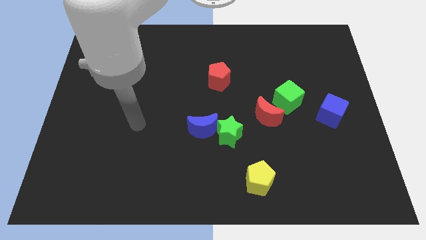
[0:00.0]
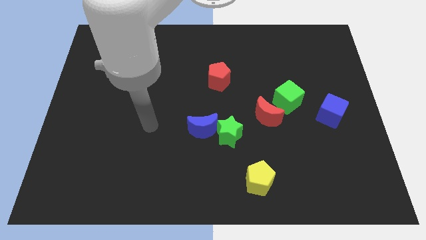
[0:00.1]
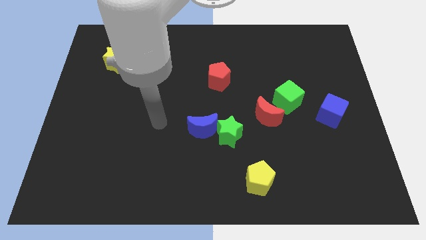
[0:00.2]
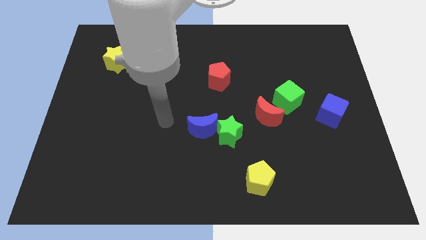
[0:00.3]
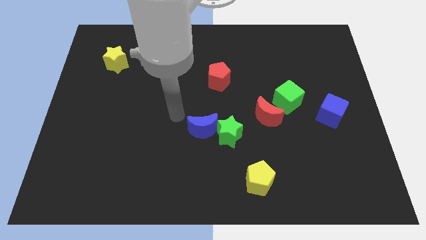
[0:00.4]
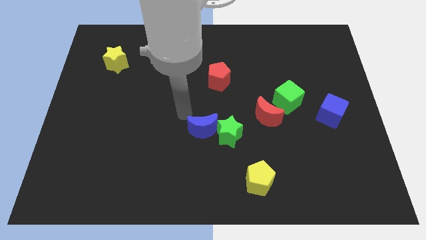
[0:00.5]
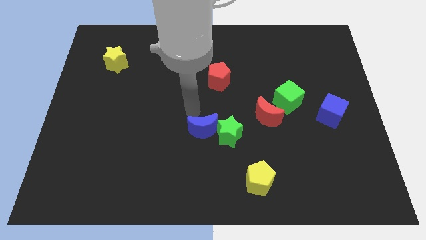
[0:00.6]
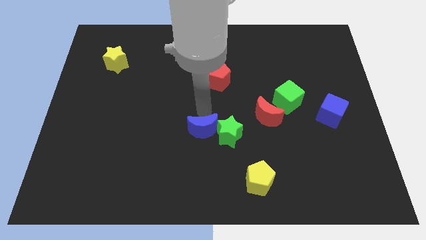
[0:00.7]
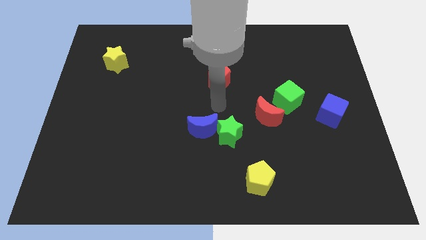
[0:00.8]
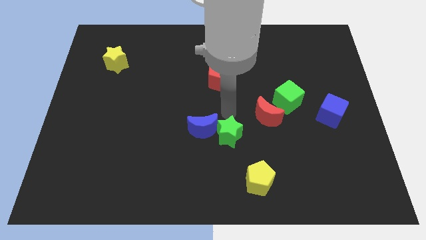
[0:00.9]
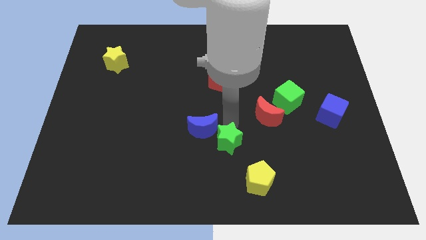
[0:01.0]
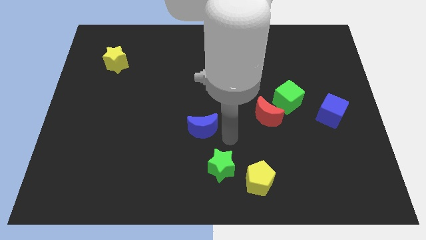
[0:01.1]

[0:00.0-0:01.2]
move the blue moon away from the green star

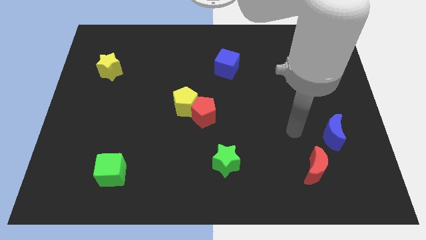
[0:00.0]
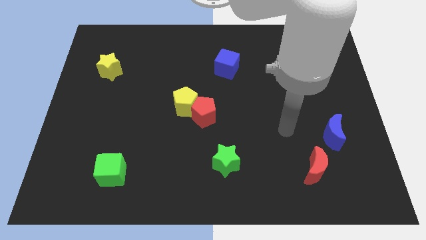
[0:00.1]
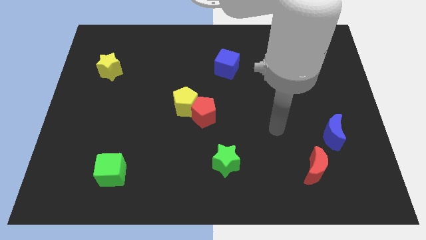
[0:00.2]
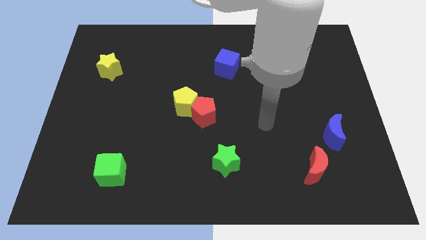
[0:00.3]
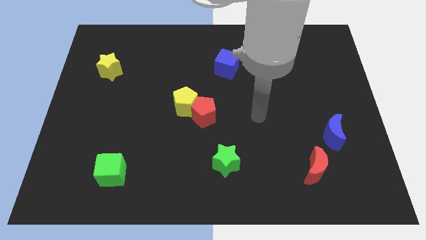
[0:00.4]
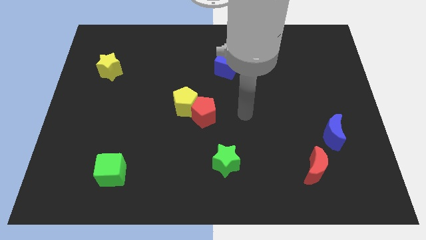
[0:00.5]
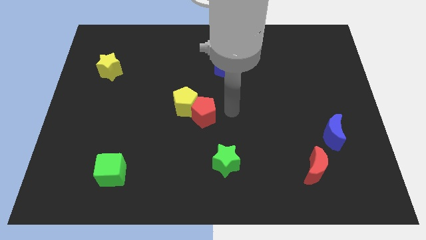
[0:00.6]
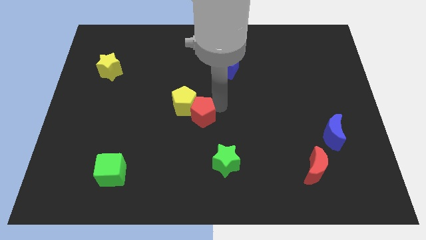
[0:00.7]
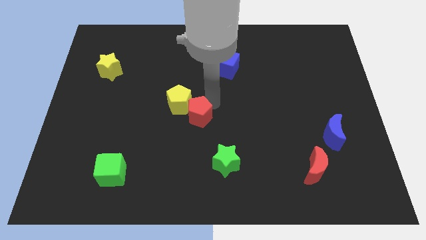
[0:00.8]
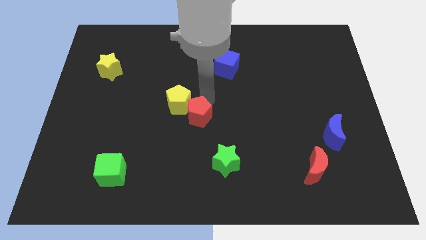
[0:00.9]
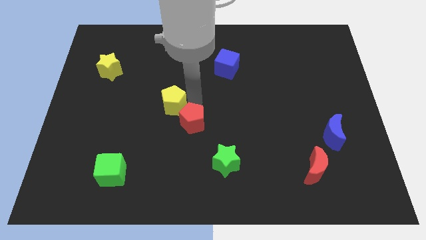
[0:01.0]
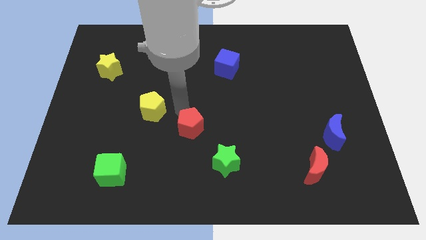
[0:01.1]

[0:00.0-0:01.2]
pull the red pentagon apart from the yellow pentagon

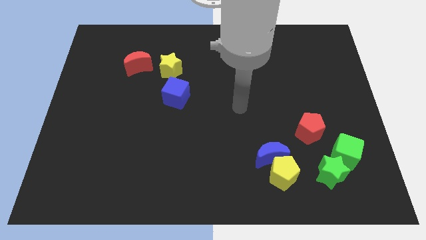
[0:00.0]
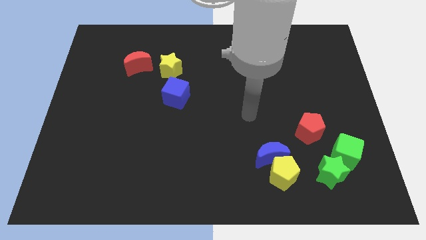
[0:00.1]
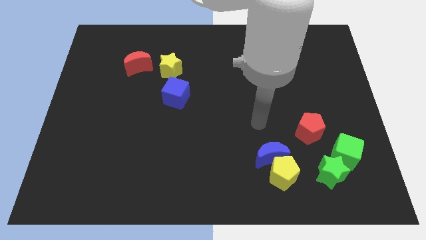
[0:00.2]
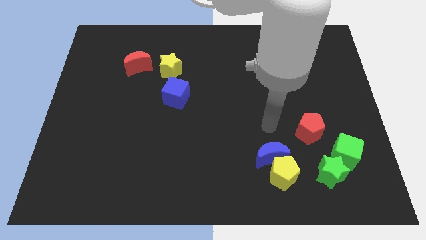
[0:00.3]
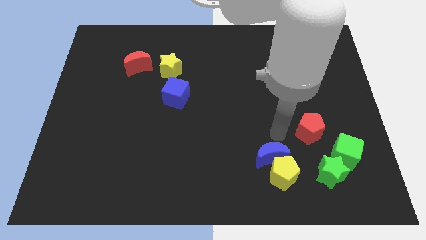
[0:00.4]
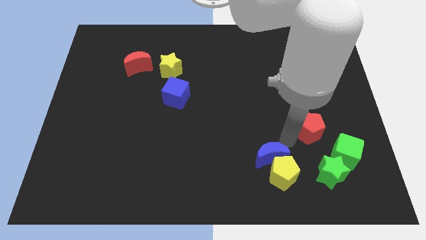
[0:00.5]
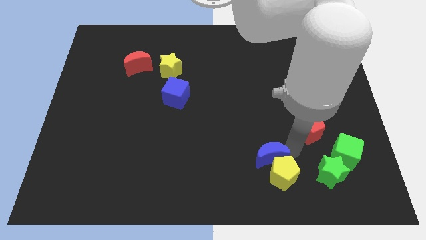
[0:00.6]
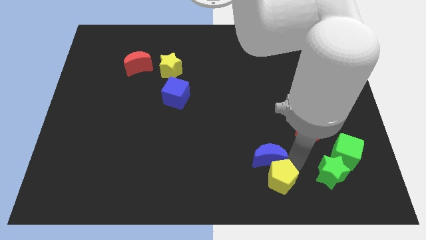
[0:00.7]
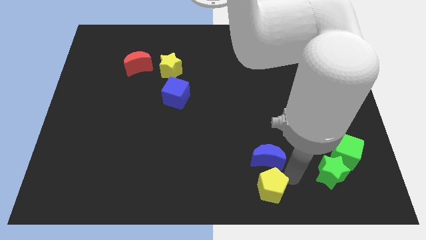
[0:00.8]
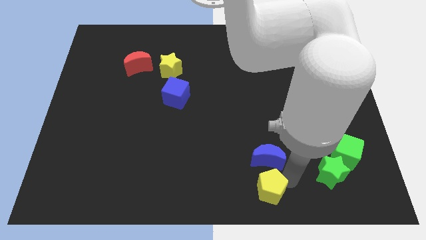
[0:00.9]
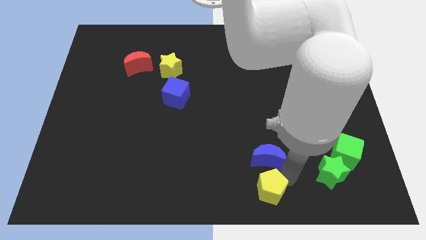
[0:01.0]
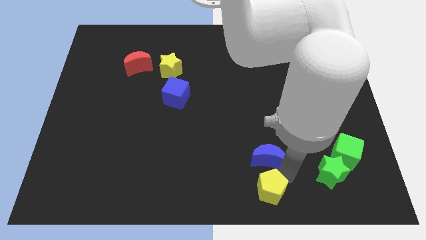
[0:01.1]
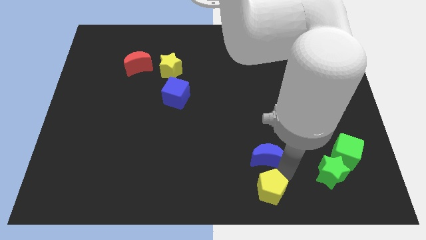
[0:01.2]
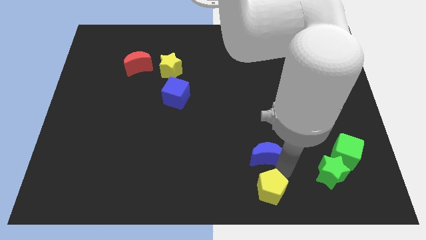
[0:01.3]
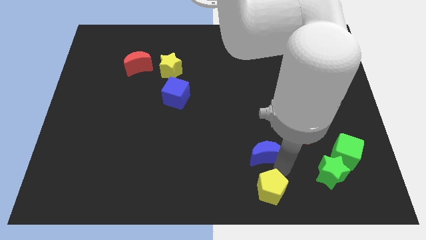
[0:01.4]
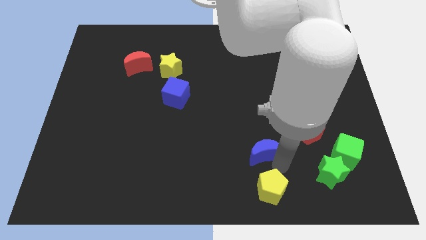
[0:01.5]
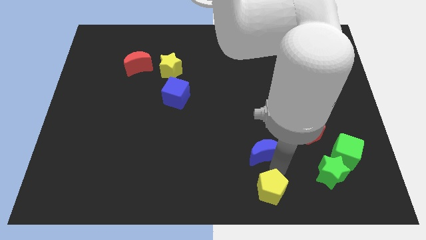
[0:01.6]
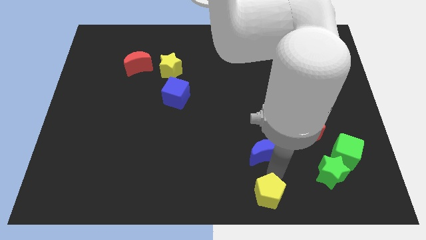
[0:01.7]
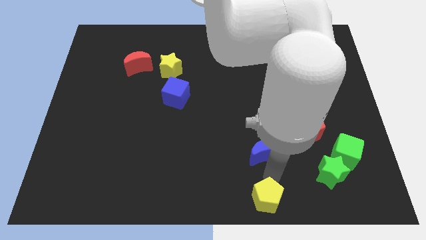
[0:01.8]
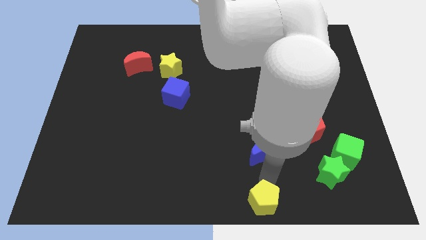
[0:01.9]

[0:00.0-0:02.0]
separate the blue moon from the yellow pentagon

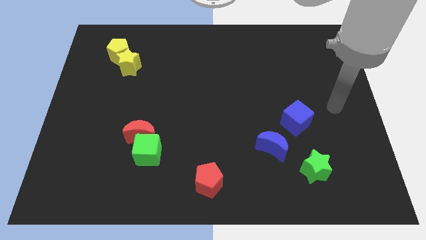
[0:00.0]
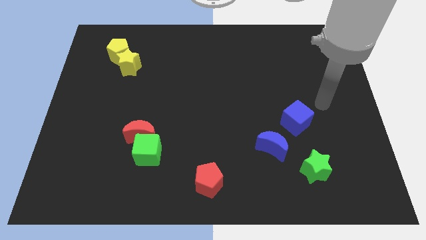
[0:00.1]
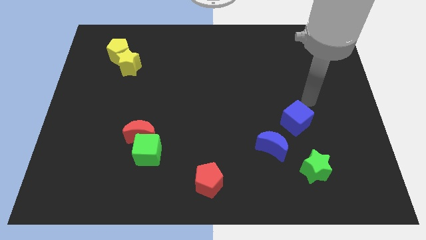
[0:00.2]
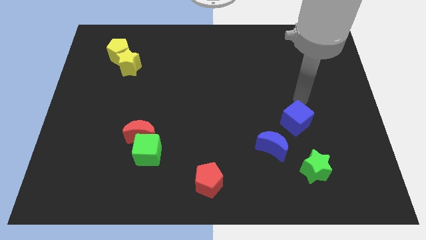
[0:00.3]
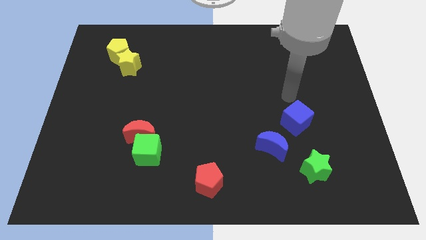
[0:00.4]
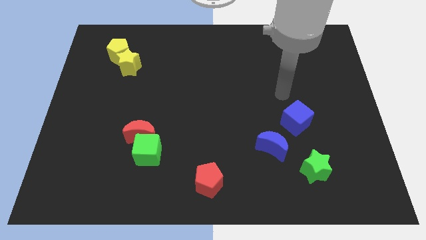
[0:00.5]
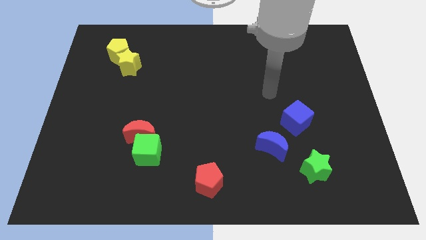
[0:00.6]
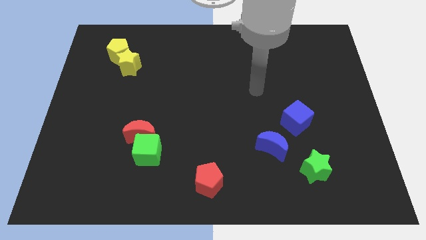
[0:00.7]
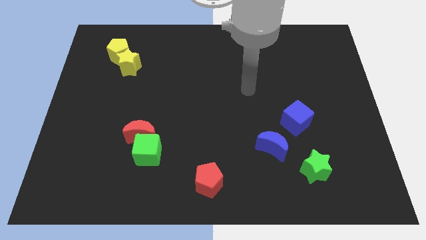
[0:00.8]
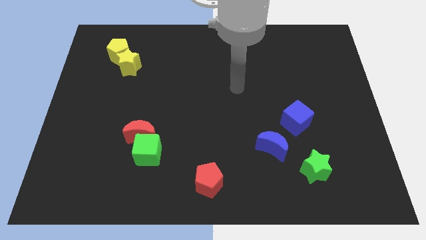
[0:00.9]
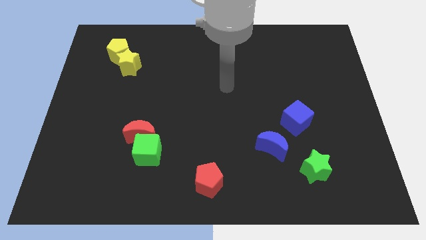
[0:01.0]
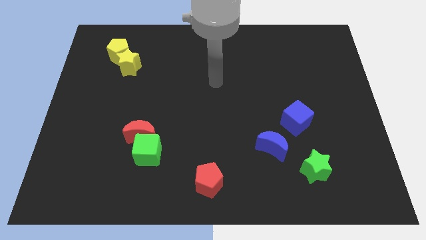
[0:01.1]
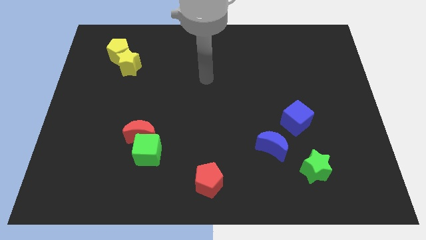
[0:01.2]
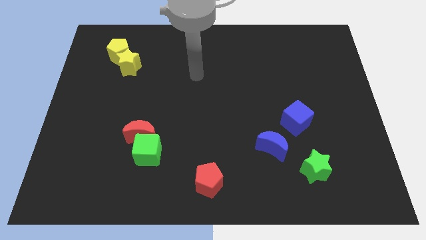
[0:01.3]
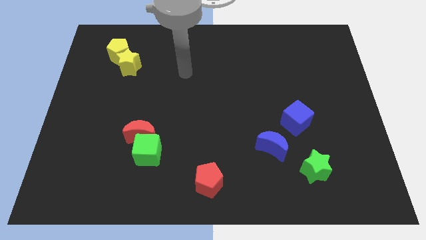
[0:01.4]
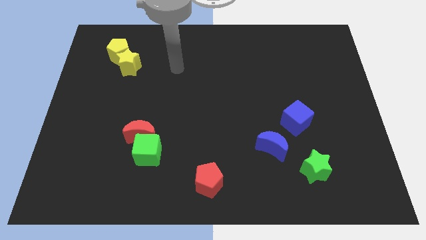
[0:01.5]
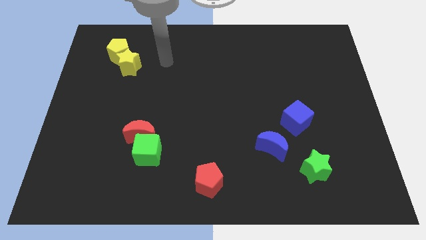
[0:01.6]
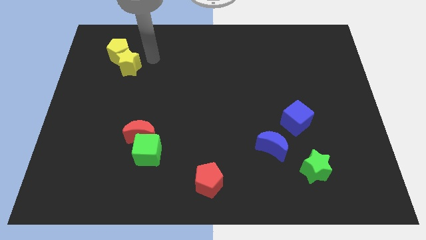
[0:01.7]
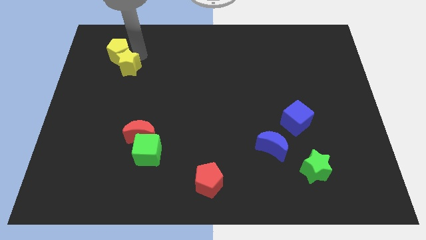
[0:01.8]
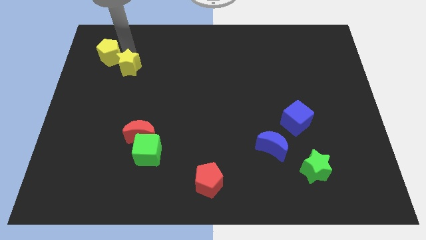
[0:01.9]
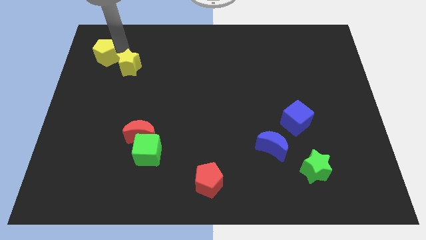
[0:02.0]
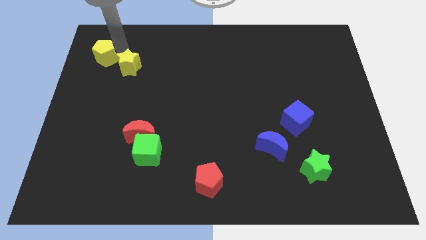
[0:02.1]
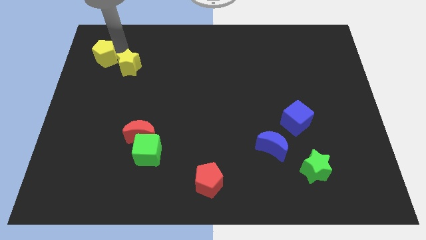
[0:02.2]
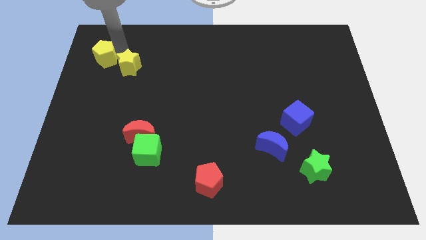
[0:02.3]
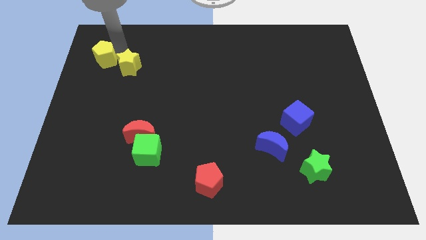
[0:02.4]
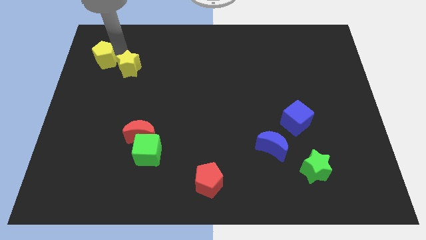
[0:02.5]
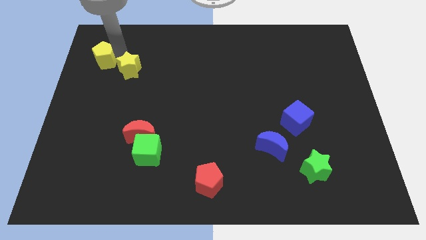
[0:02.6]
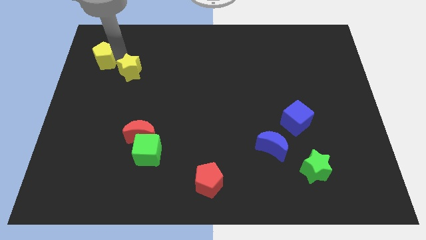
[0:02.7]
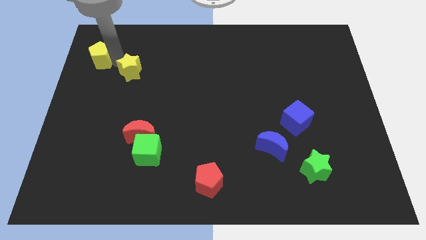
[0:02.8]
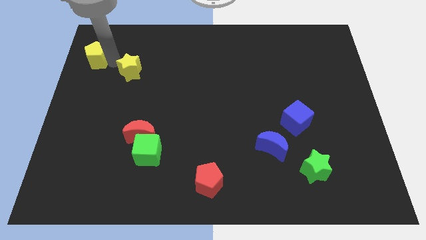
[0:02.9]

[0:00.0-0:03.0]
move the yellow star away from the yellow pentagon

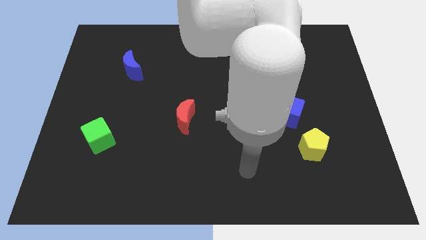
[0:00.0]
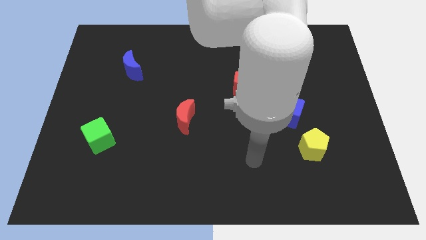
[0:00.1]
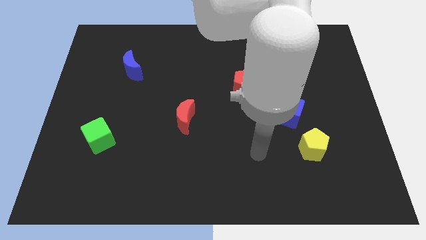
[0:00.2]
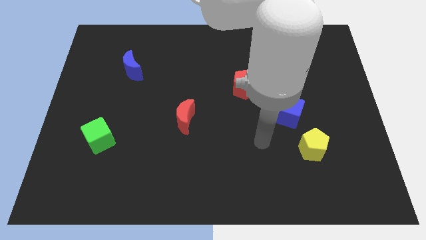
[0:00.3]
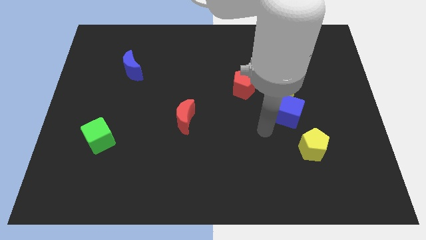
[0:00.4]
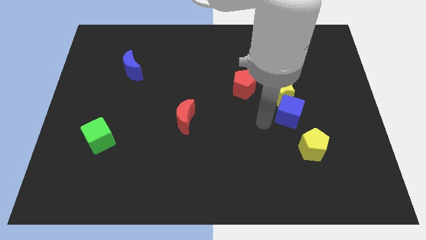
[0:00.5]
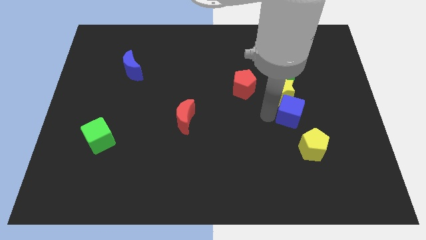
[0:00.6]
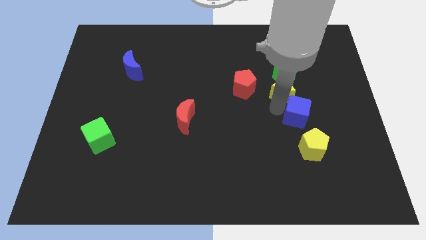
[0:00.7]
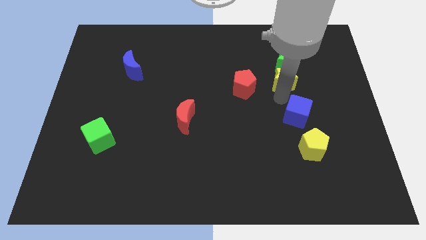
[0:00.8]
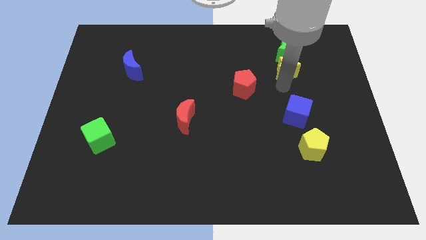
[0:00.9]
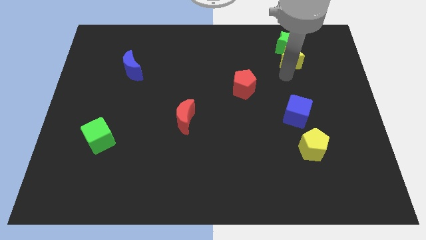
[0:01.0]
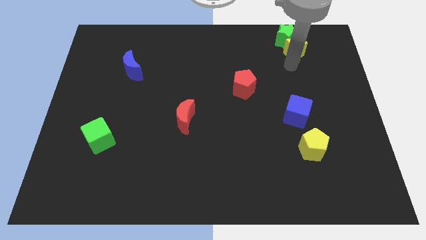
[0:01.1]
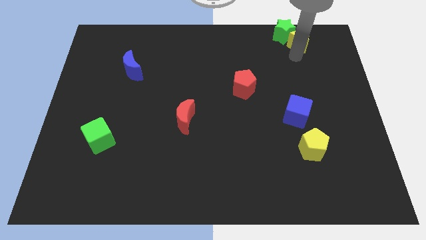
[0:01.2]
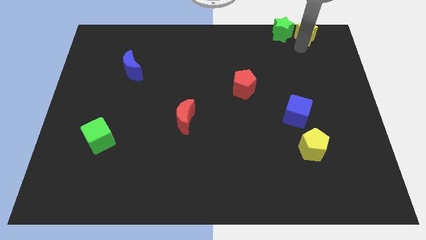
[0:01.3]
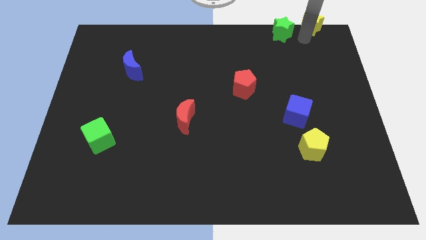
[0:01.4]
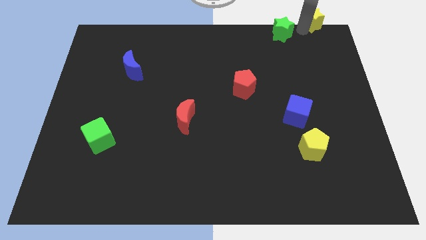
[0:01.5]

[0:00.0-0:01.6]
pull the green star apart from the yellow star

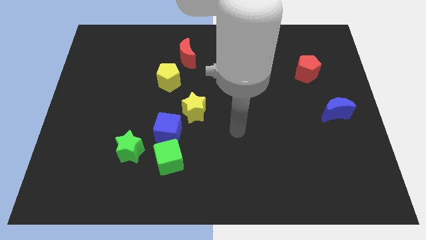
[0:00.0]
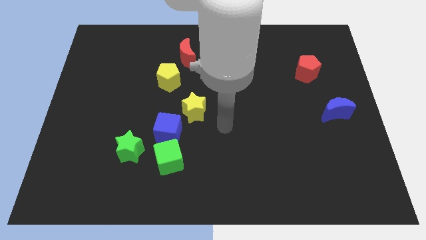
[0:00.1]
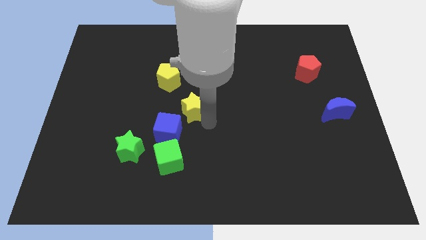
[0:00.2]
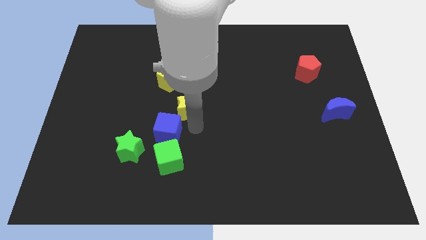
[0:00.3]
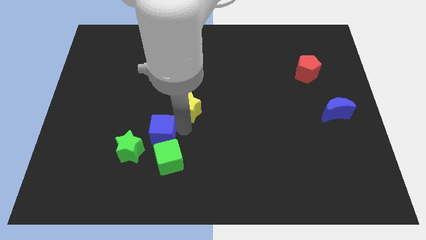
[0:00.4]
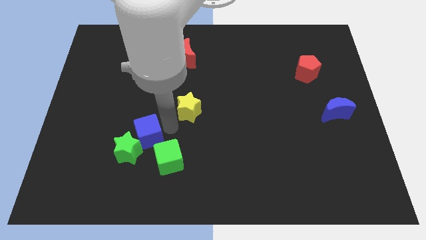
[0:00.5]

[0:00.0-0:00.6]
move the yellow star away from the blue cube
